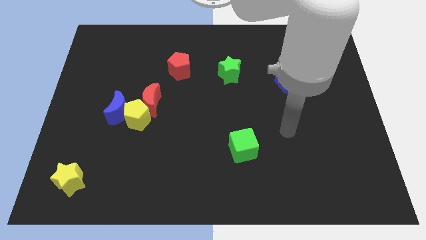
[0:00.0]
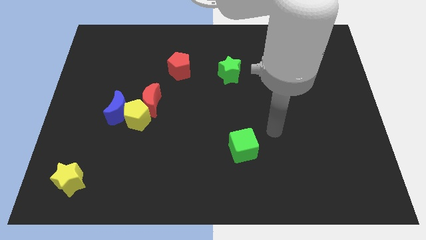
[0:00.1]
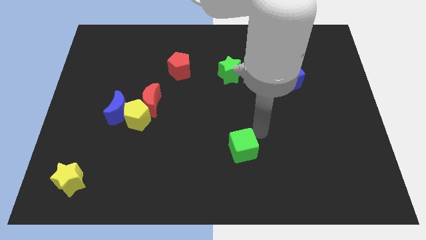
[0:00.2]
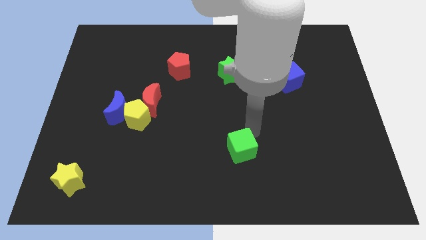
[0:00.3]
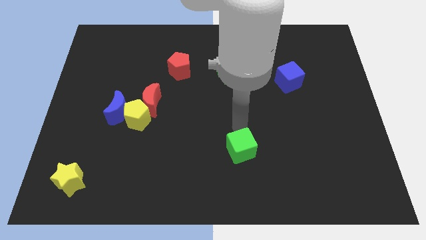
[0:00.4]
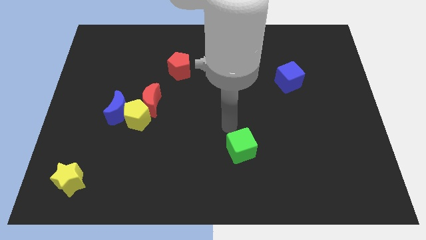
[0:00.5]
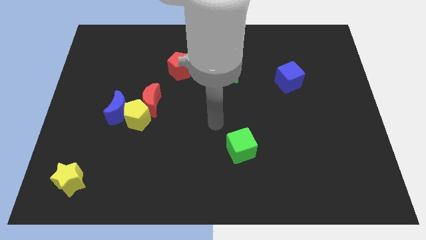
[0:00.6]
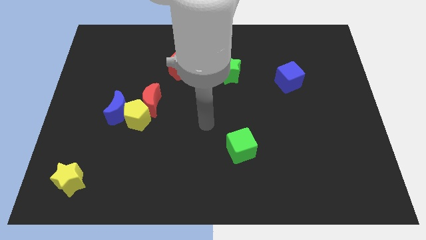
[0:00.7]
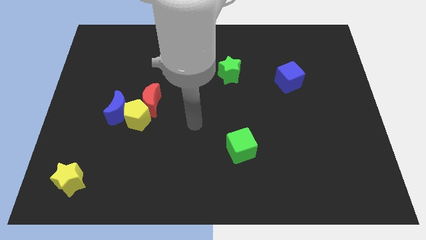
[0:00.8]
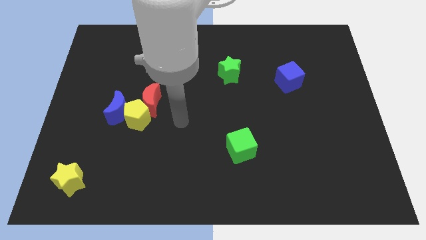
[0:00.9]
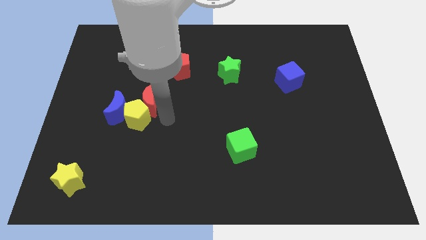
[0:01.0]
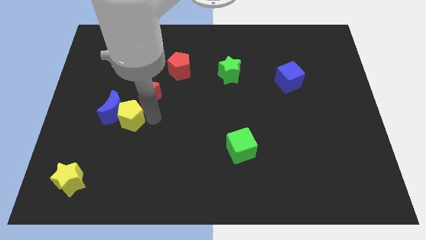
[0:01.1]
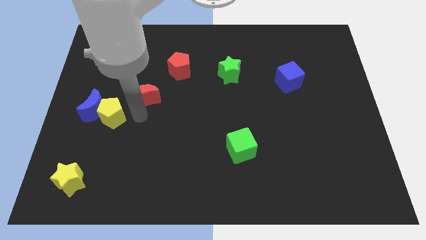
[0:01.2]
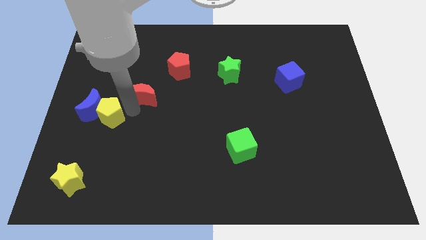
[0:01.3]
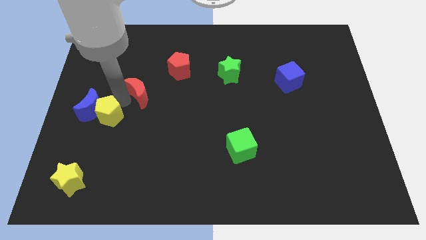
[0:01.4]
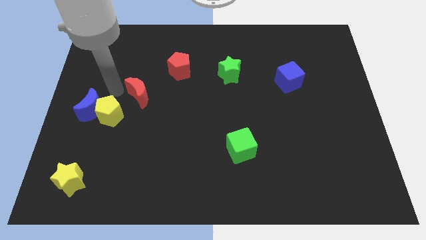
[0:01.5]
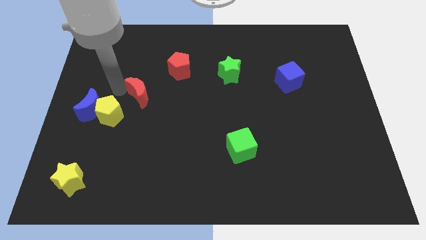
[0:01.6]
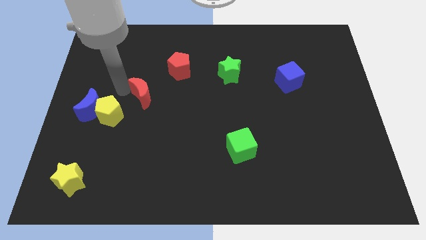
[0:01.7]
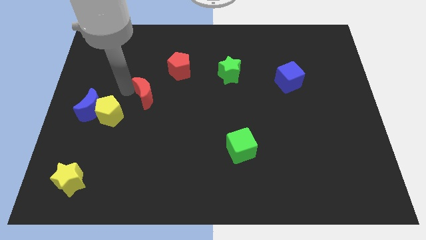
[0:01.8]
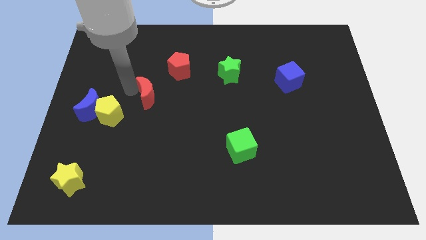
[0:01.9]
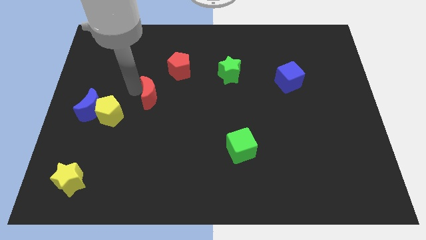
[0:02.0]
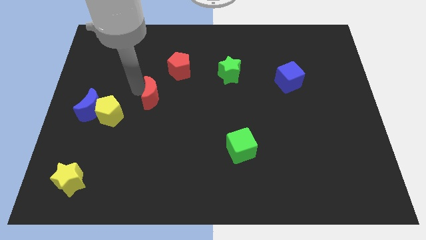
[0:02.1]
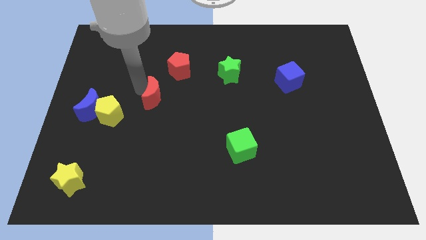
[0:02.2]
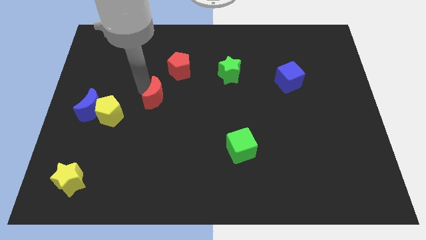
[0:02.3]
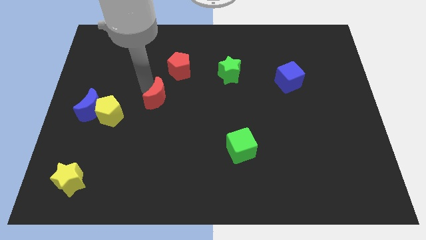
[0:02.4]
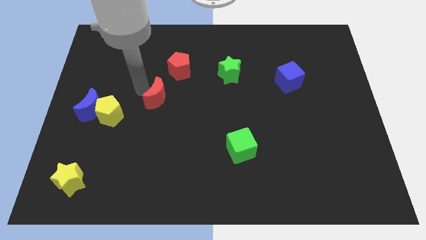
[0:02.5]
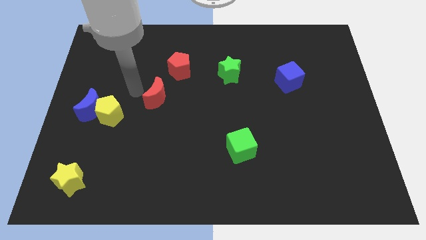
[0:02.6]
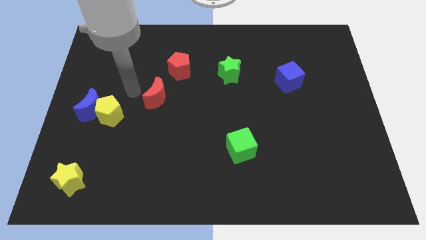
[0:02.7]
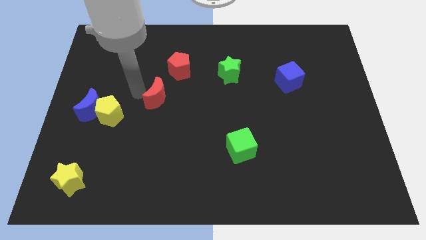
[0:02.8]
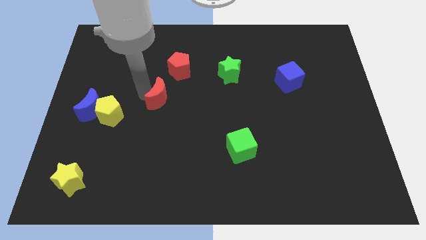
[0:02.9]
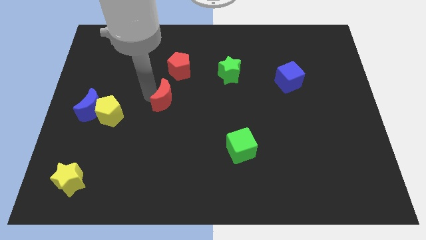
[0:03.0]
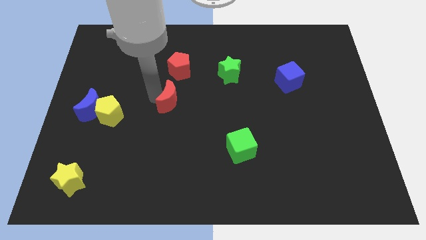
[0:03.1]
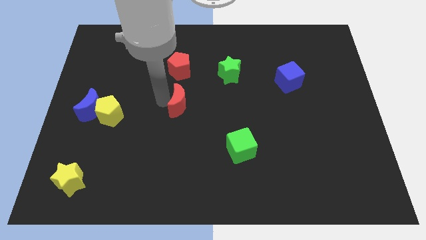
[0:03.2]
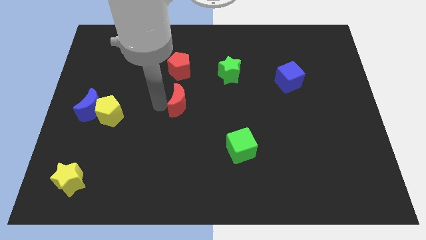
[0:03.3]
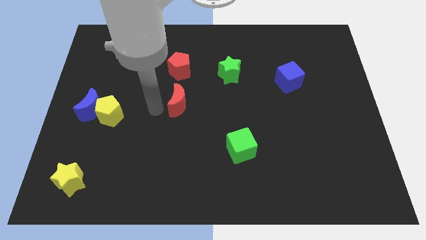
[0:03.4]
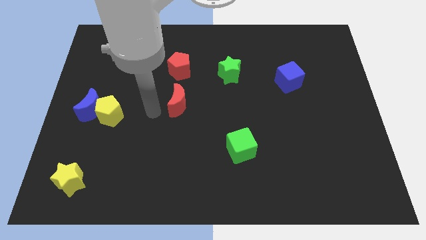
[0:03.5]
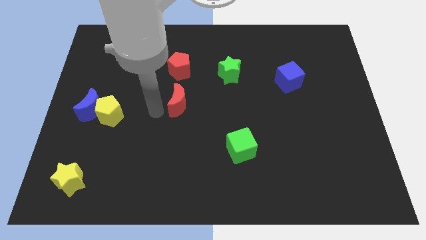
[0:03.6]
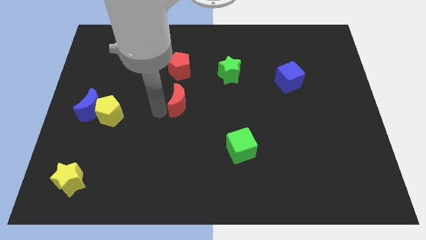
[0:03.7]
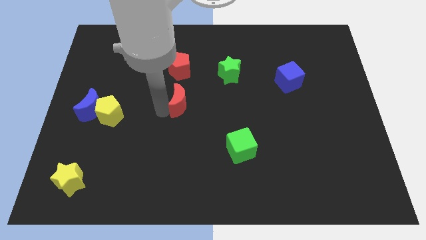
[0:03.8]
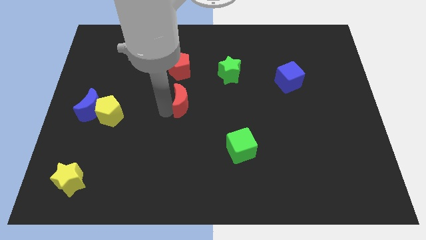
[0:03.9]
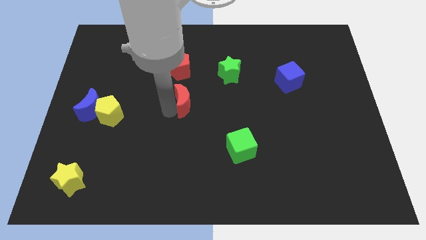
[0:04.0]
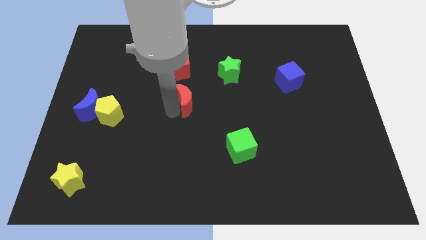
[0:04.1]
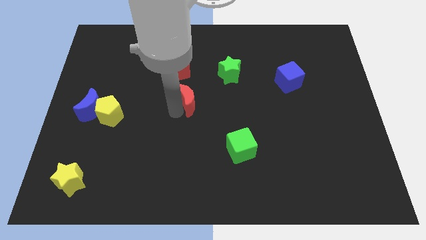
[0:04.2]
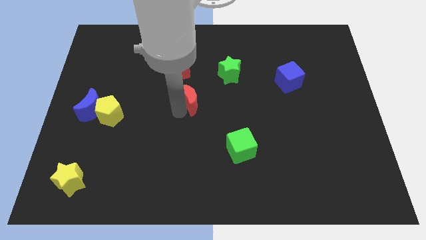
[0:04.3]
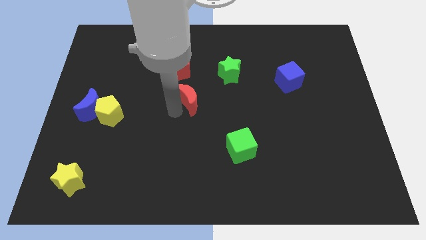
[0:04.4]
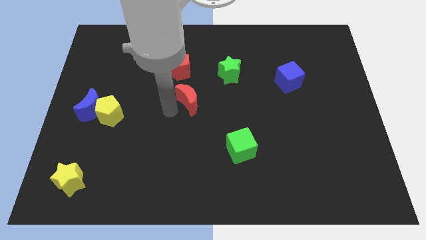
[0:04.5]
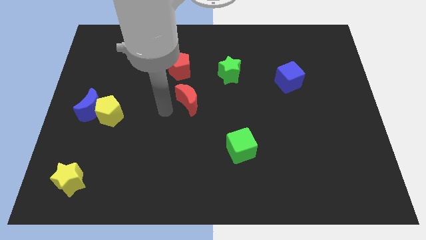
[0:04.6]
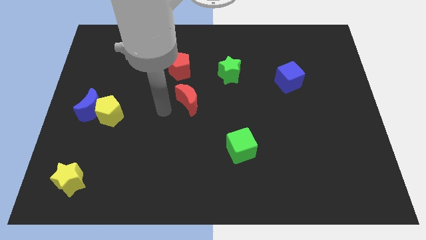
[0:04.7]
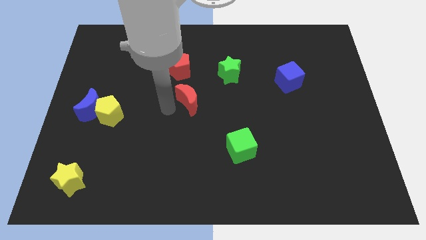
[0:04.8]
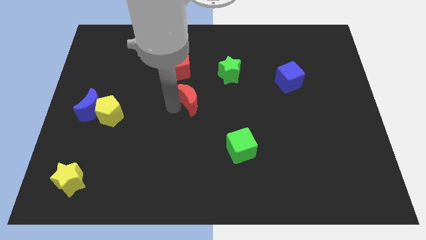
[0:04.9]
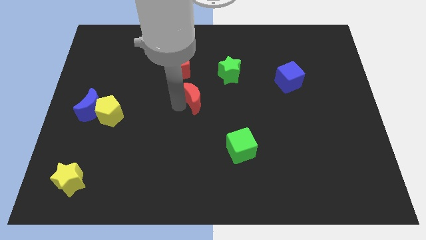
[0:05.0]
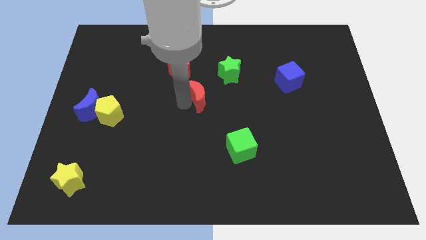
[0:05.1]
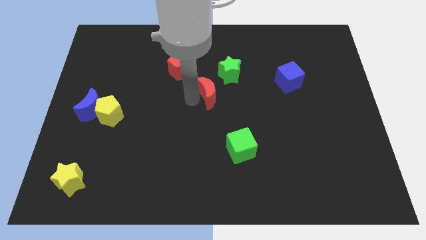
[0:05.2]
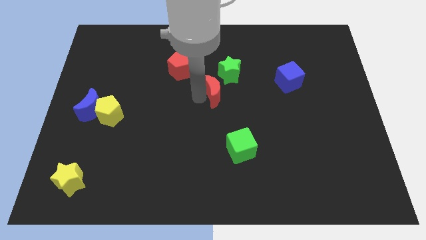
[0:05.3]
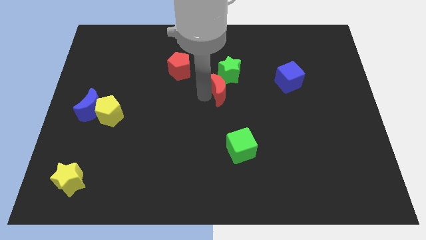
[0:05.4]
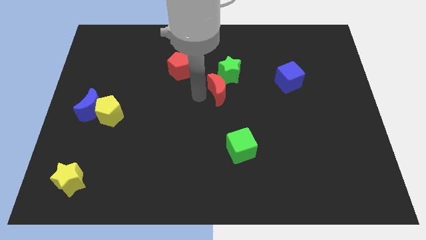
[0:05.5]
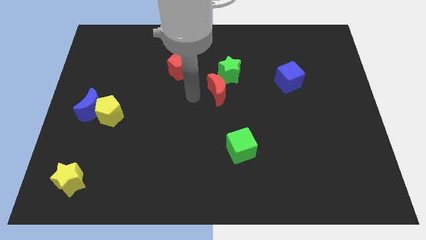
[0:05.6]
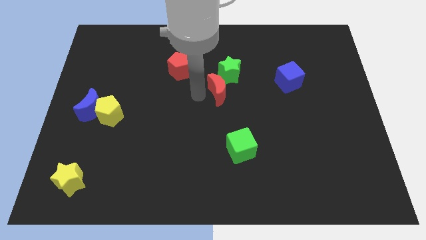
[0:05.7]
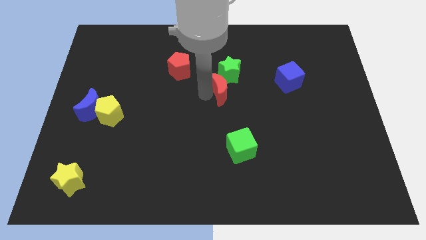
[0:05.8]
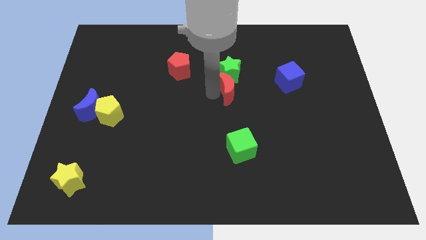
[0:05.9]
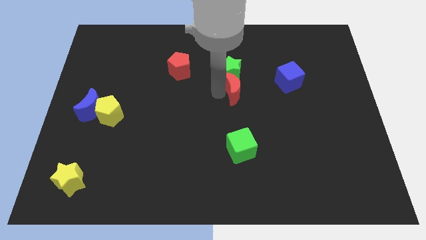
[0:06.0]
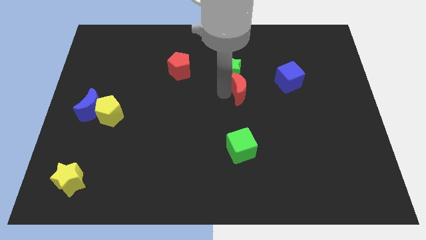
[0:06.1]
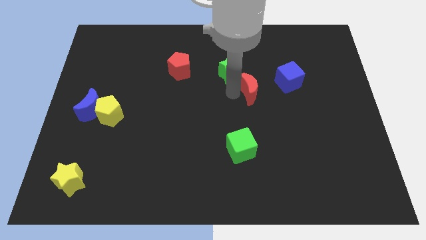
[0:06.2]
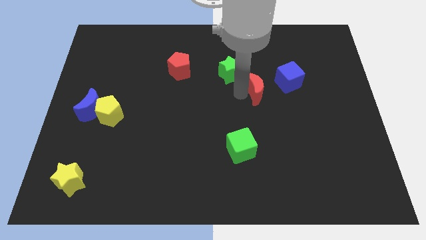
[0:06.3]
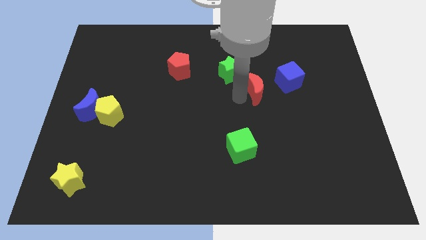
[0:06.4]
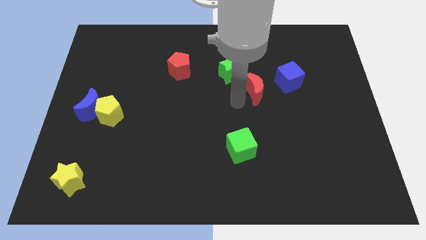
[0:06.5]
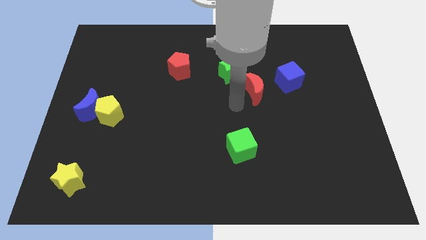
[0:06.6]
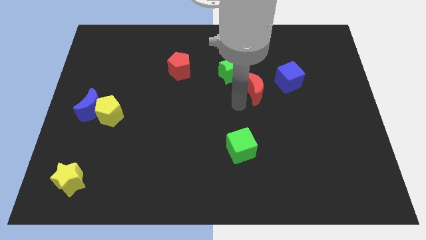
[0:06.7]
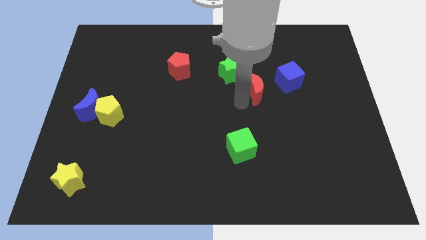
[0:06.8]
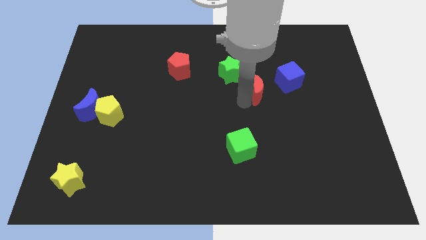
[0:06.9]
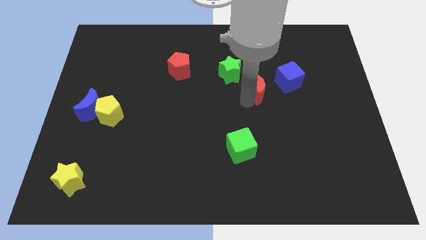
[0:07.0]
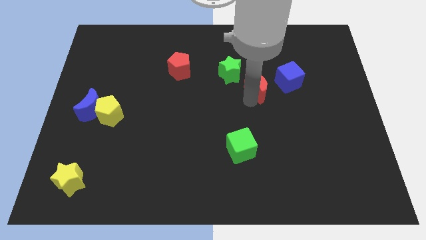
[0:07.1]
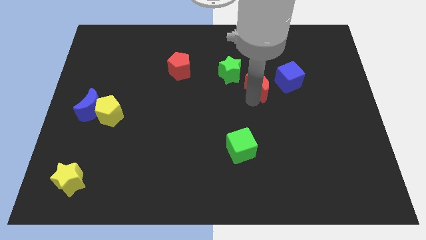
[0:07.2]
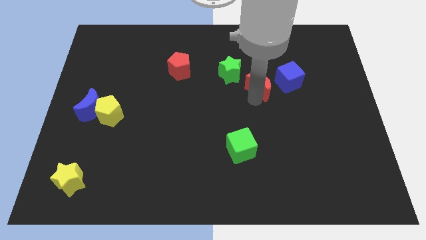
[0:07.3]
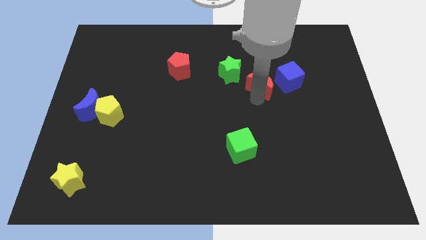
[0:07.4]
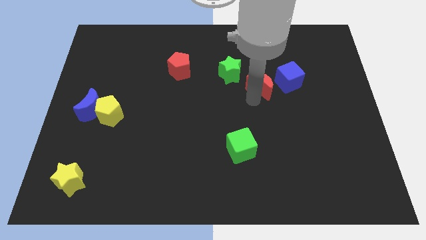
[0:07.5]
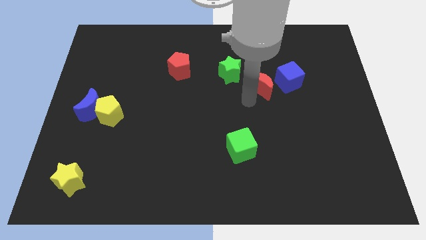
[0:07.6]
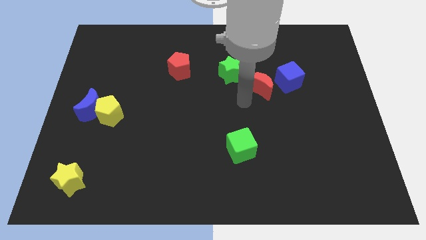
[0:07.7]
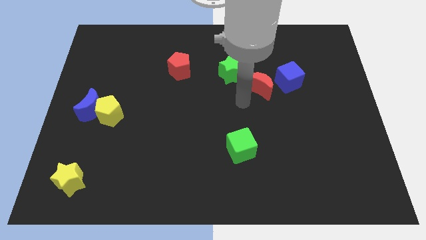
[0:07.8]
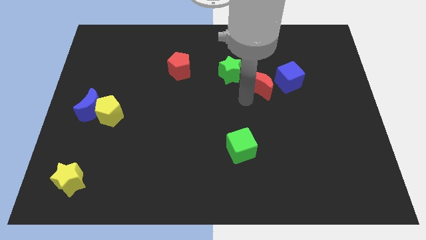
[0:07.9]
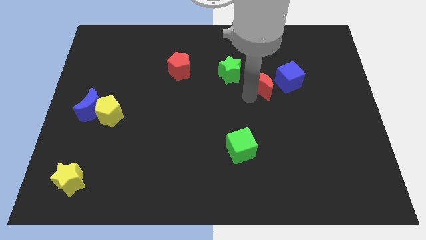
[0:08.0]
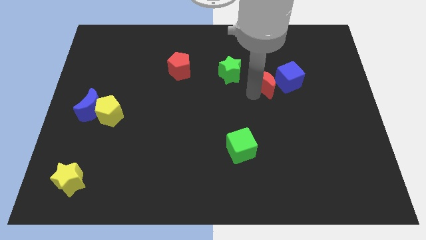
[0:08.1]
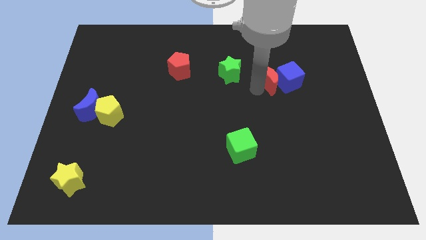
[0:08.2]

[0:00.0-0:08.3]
push the red moon towards the blue cube
